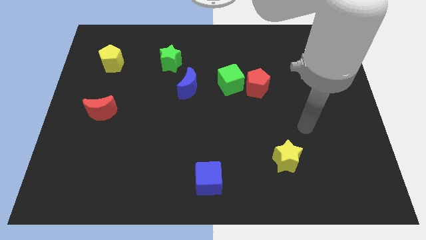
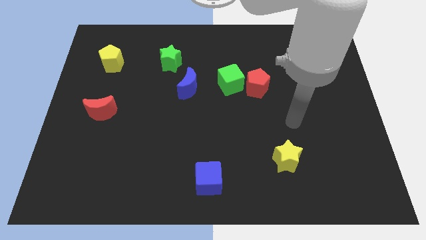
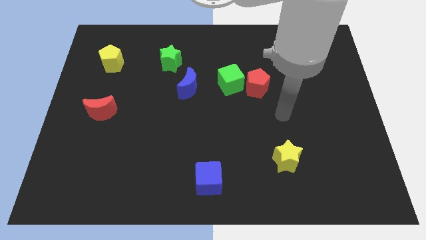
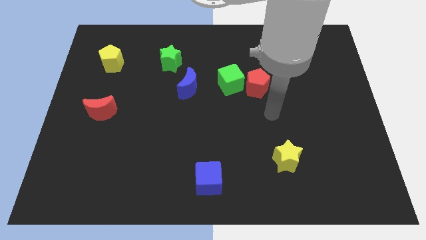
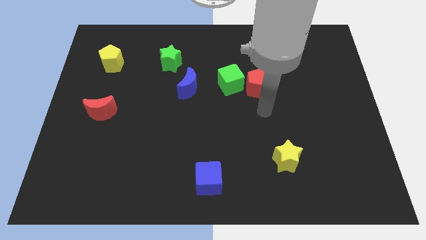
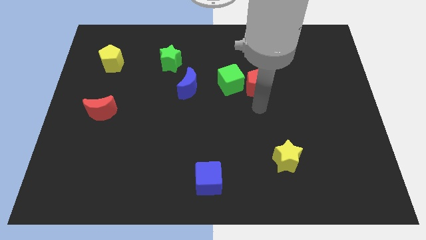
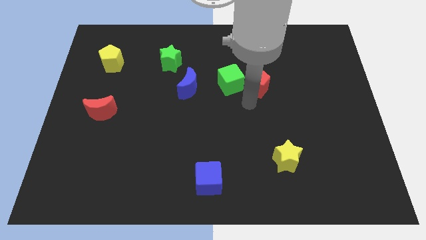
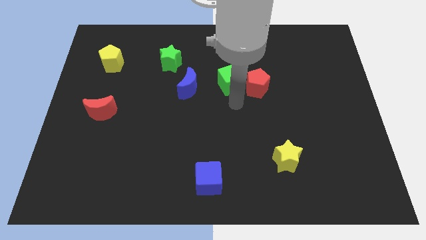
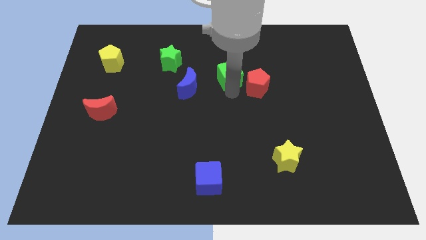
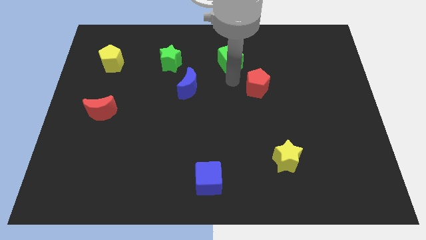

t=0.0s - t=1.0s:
move the red pentagon away from the green cube

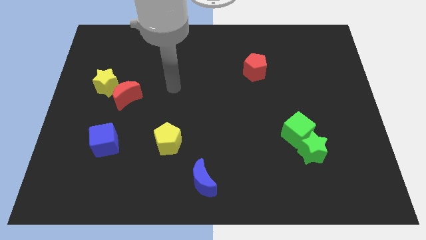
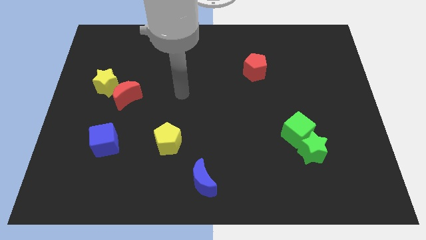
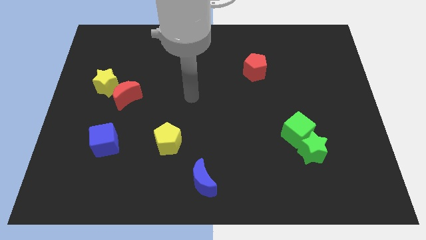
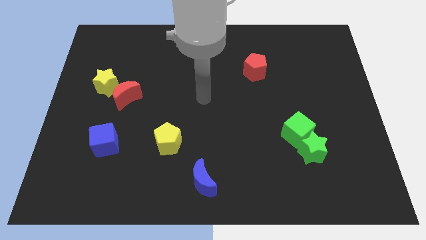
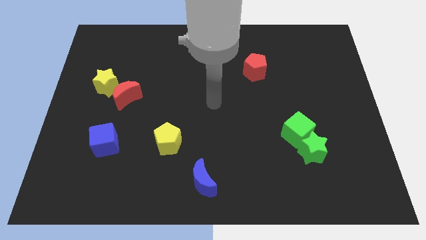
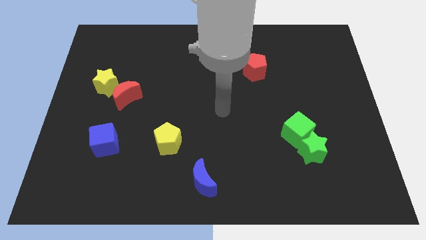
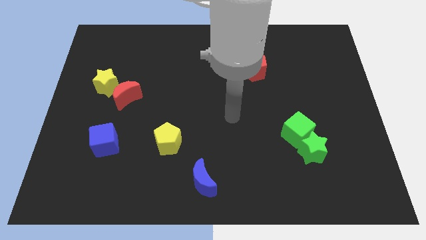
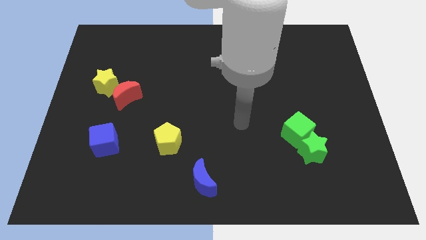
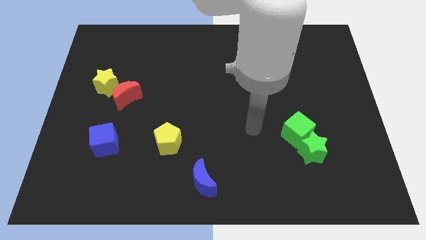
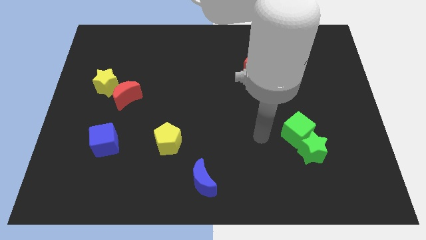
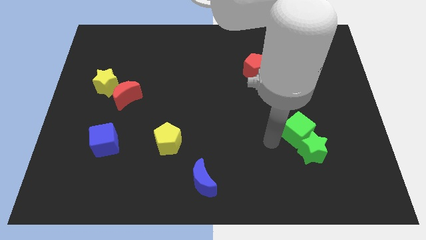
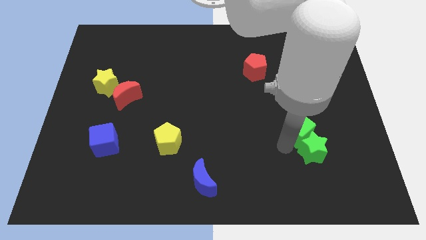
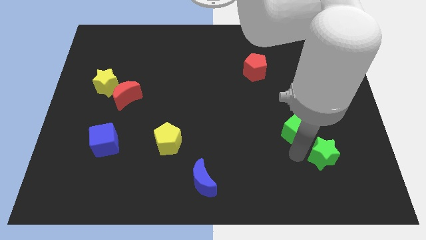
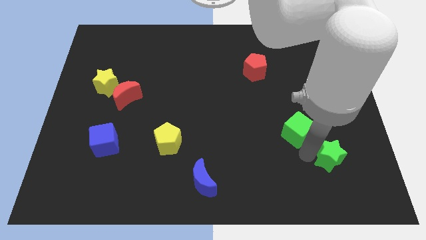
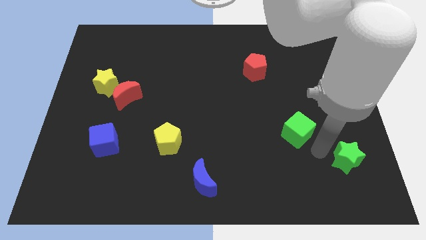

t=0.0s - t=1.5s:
separate the green cube from the green star

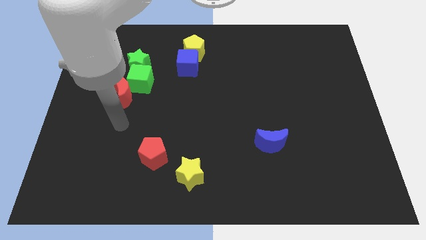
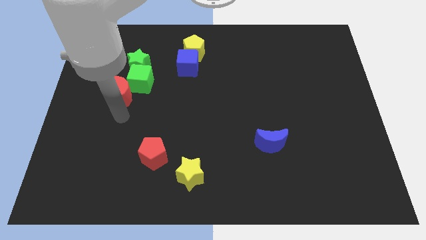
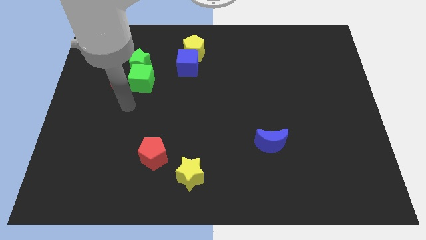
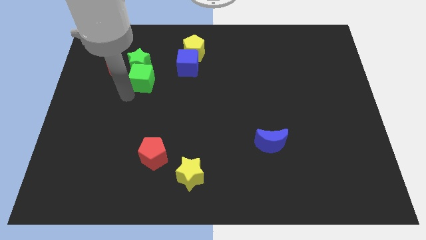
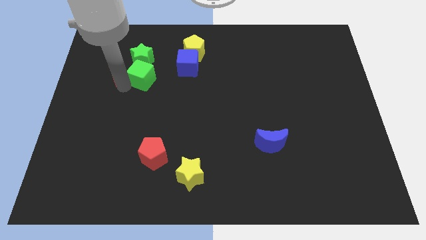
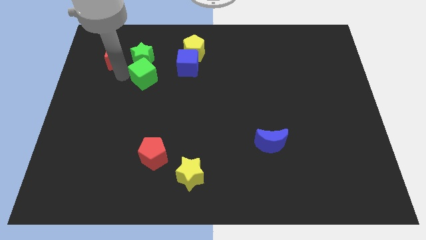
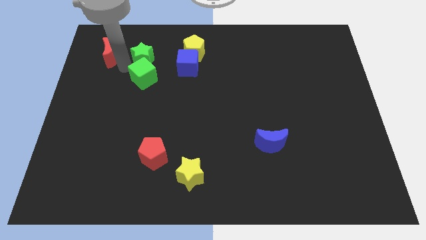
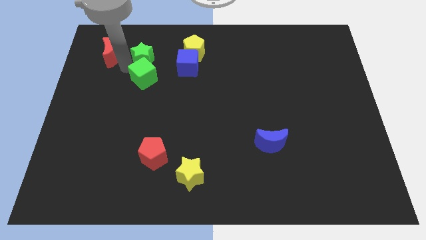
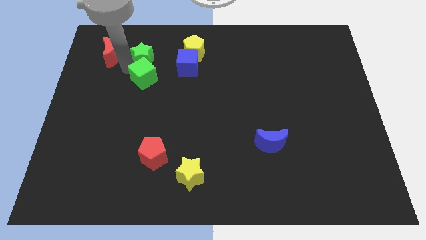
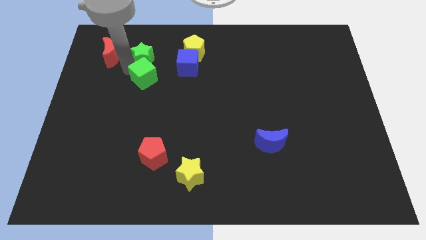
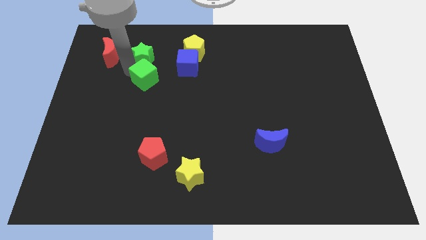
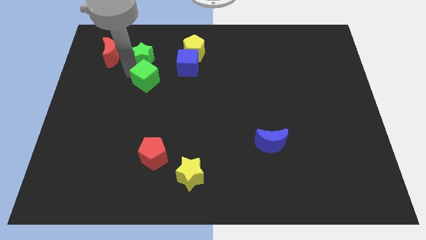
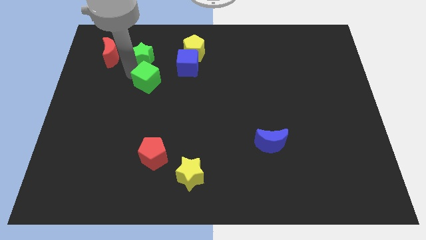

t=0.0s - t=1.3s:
separate the green cube from the red moon and green star

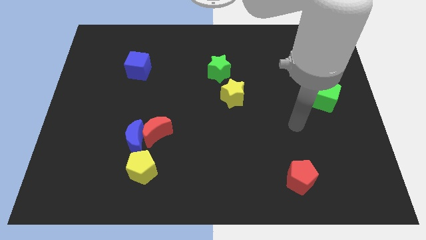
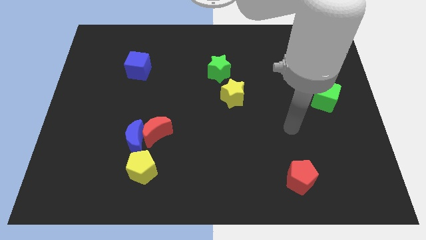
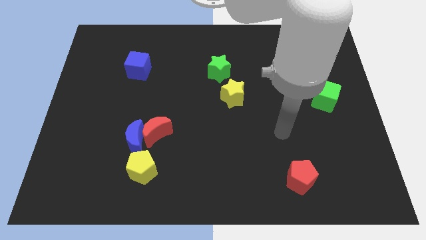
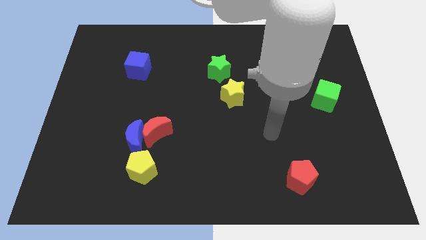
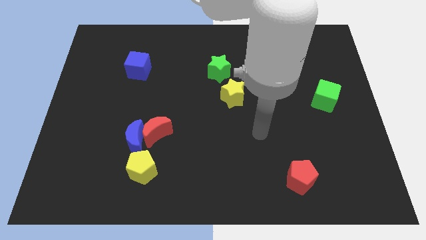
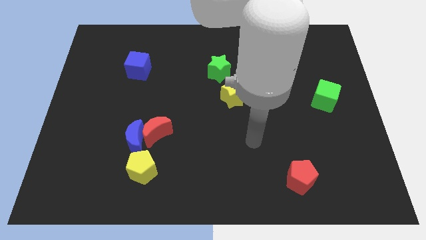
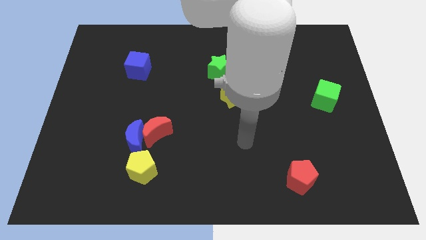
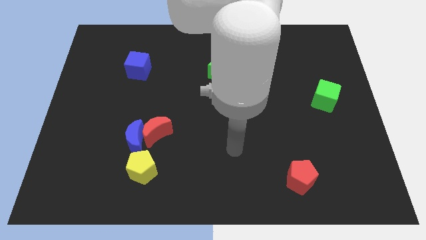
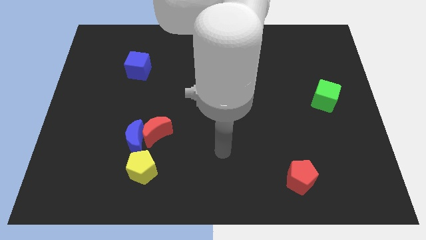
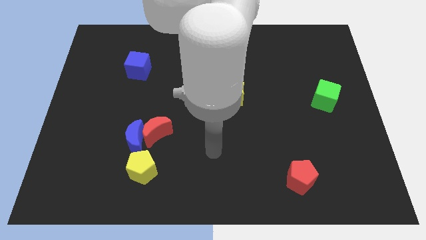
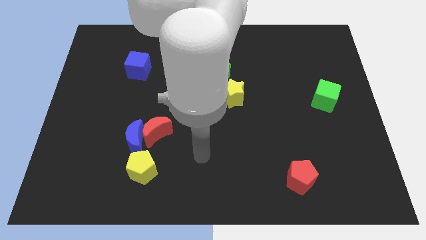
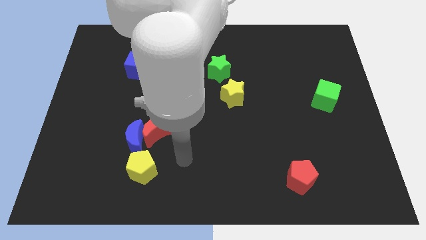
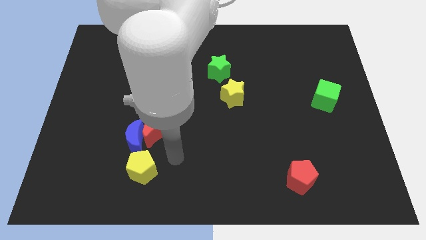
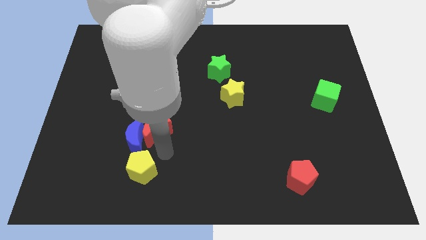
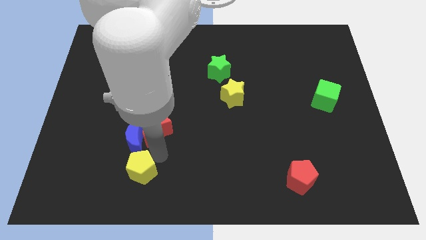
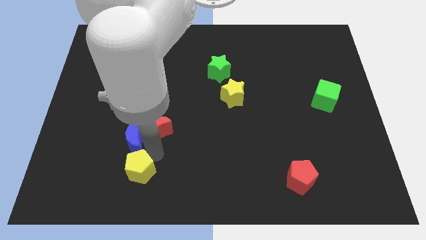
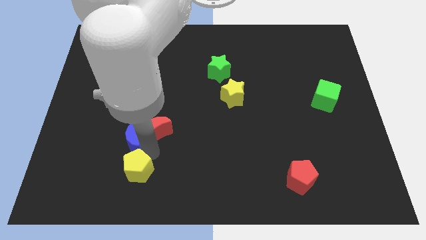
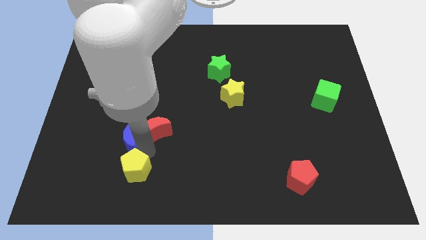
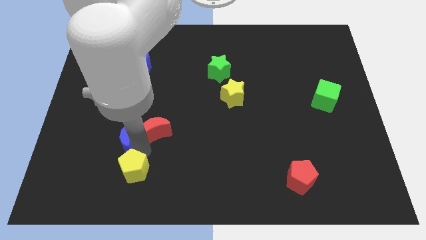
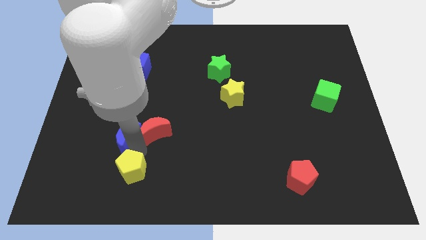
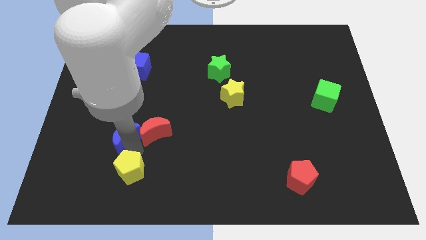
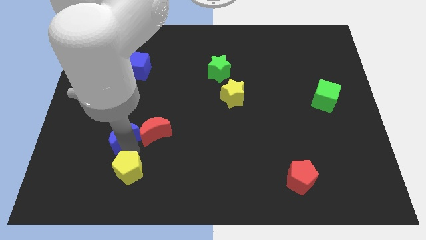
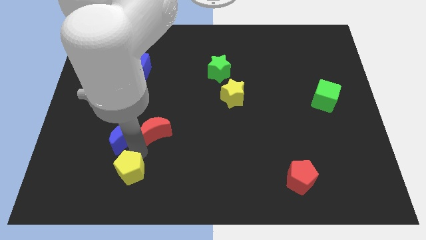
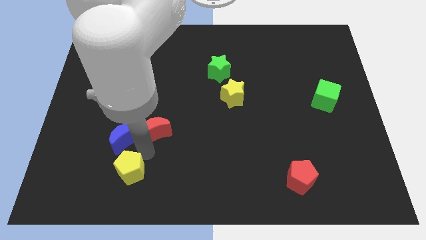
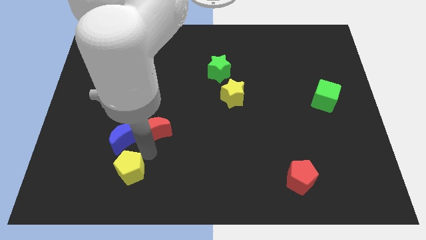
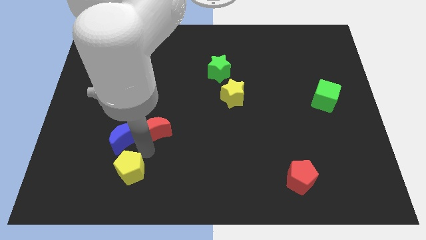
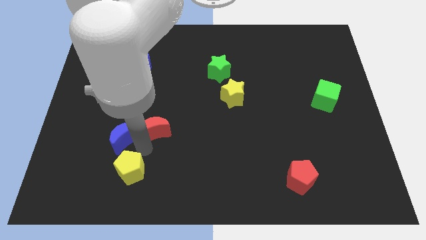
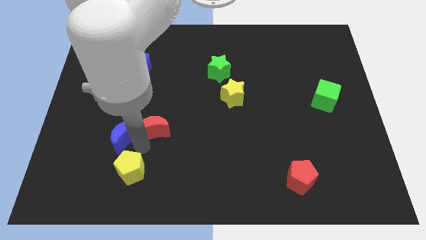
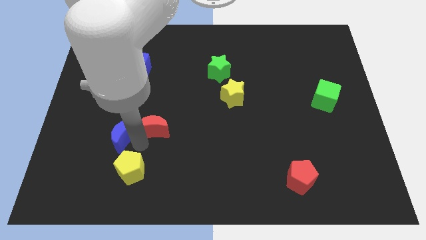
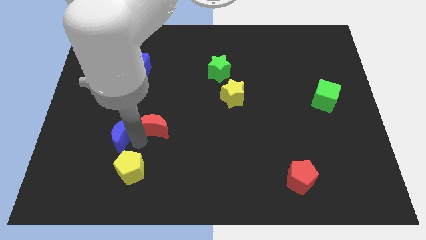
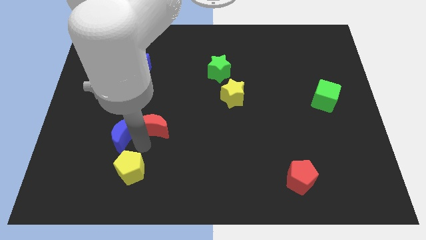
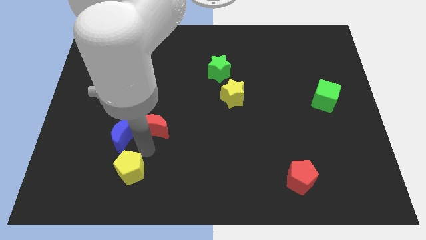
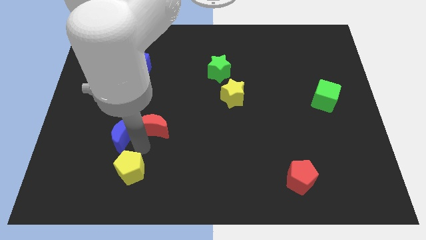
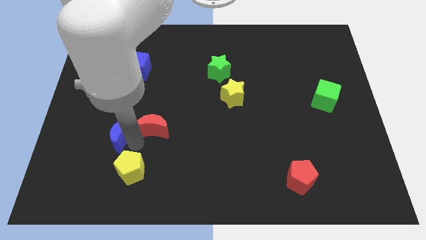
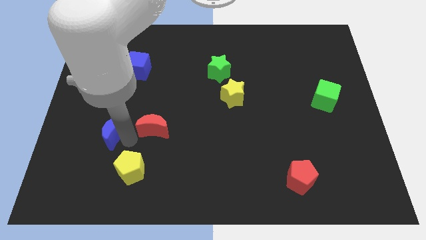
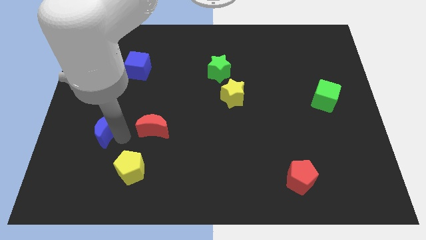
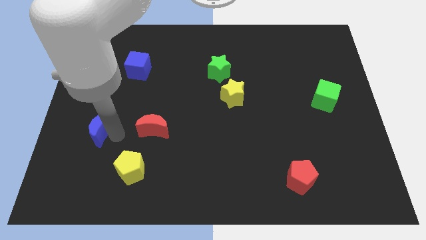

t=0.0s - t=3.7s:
separate the blue moon from the red moon and yellow pentagon

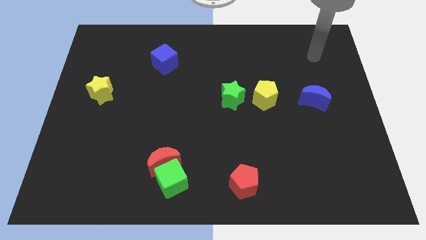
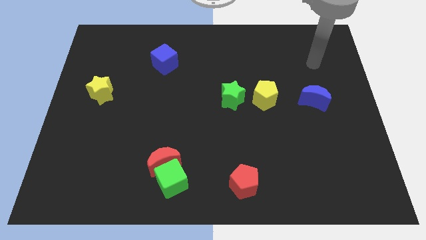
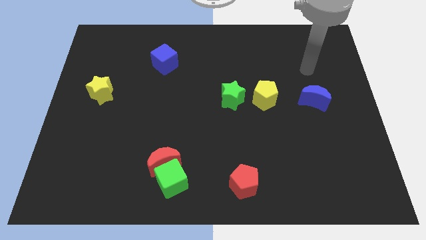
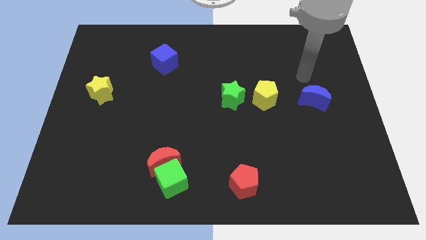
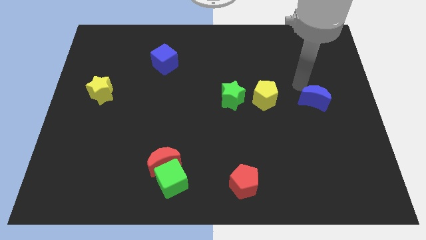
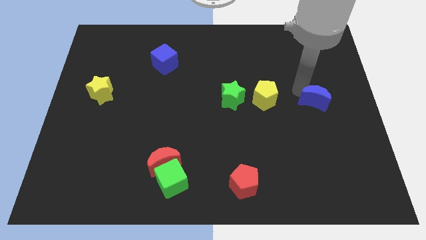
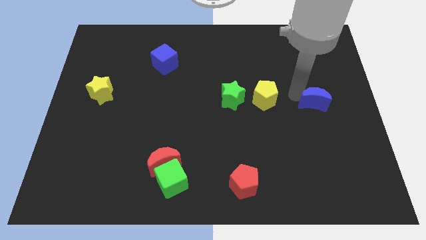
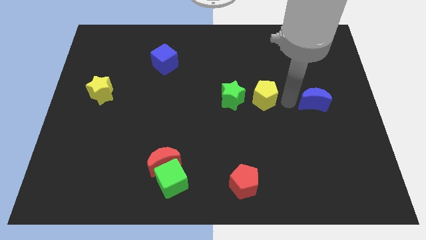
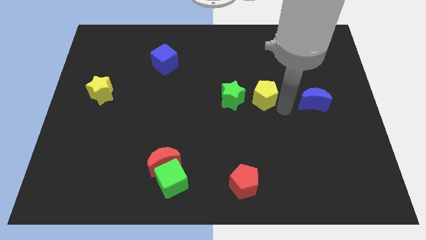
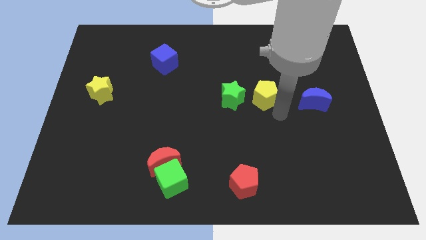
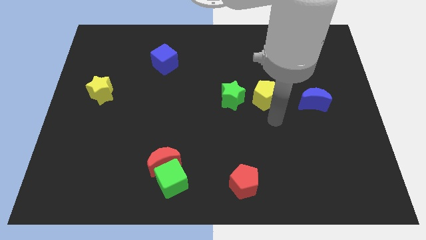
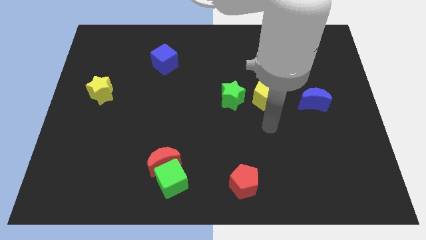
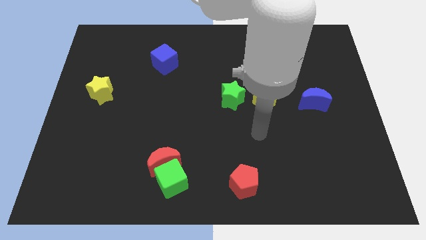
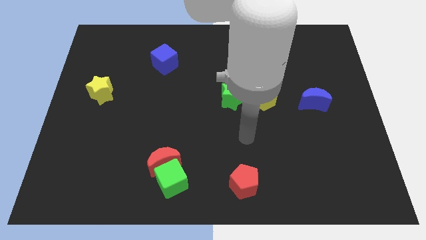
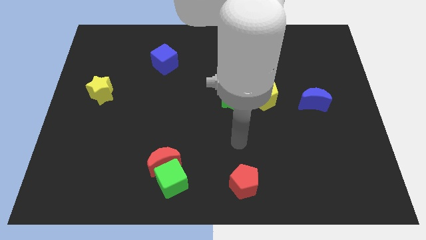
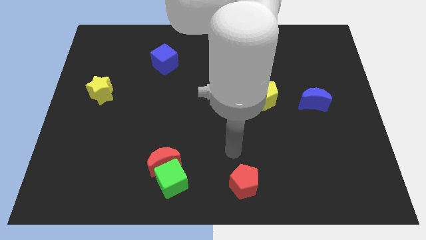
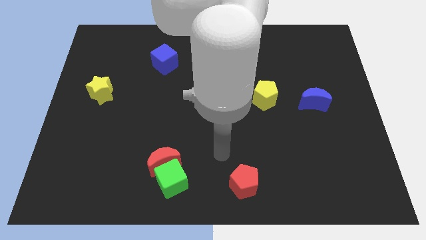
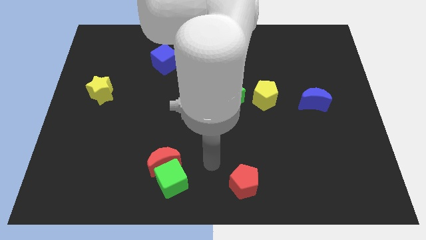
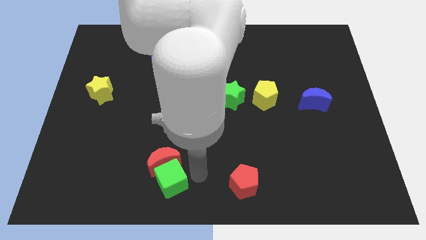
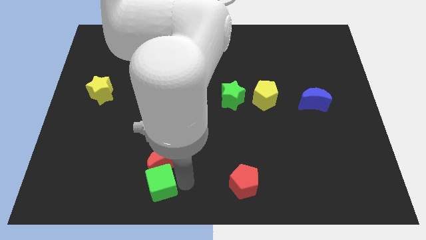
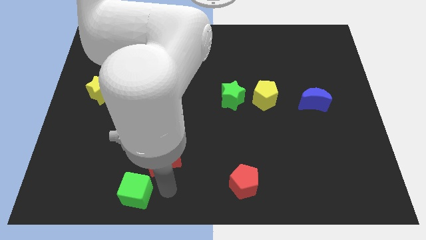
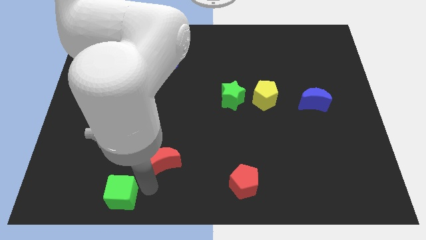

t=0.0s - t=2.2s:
move the red moon away from the green cube
